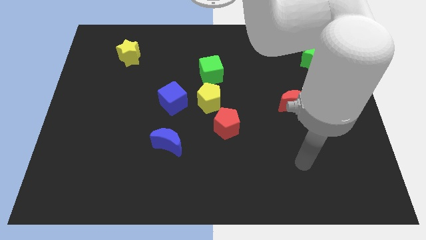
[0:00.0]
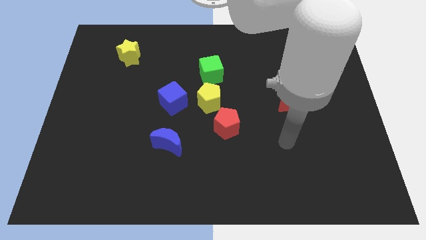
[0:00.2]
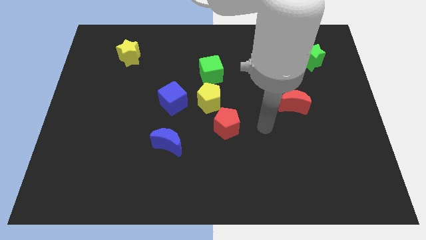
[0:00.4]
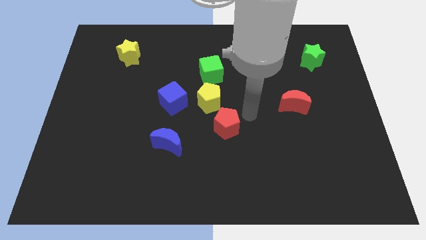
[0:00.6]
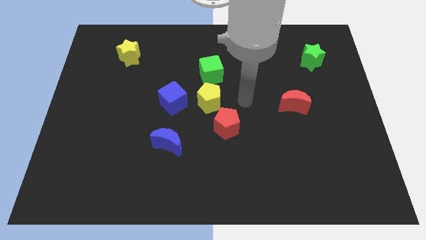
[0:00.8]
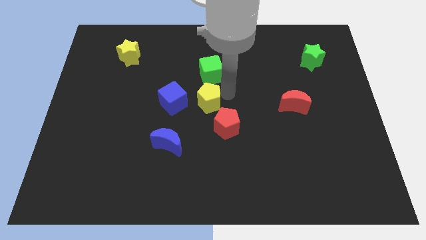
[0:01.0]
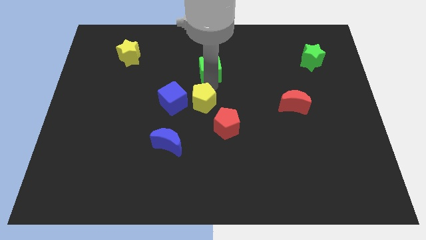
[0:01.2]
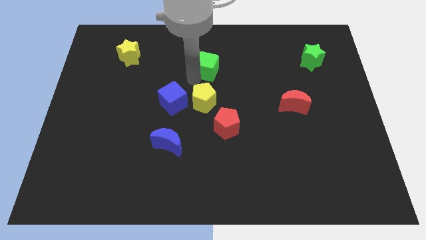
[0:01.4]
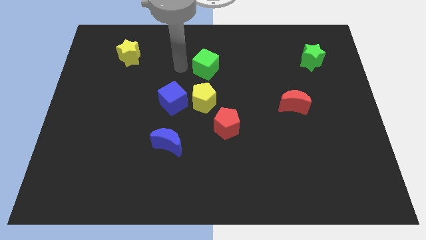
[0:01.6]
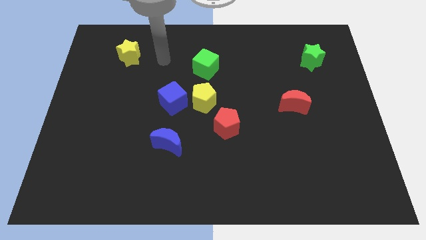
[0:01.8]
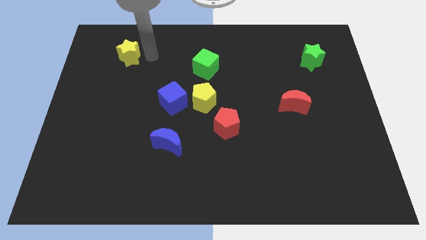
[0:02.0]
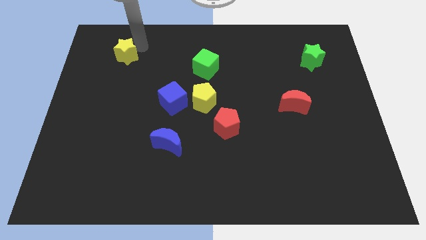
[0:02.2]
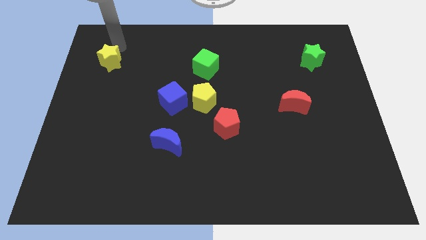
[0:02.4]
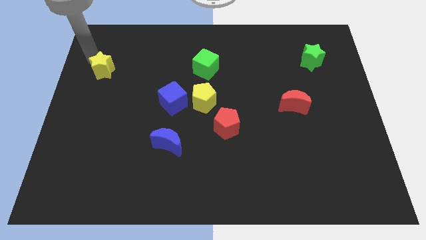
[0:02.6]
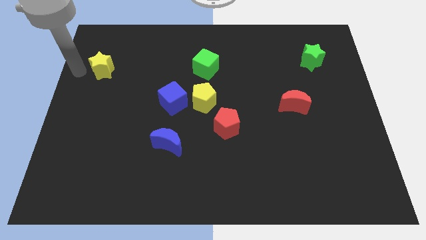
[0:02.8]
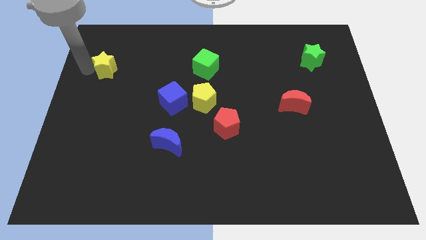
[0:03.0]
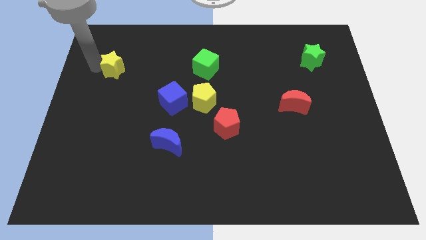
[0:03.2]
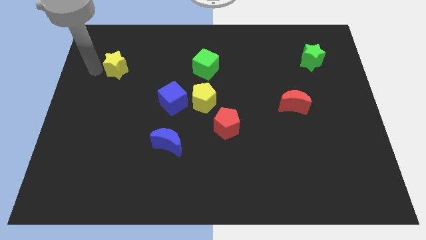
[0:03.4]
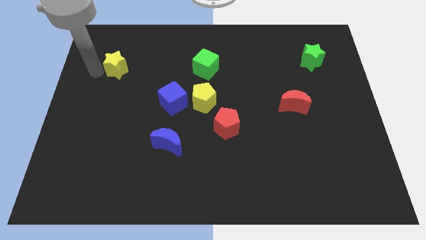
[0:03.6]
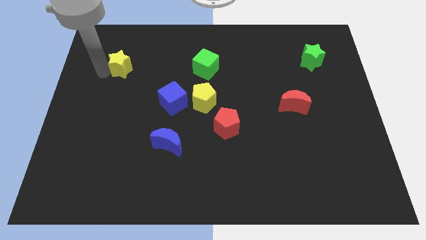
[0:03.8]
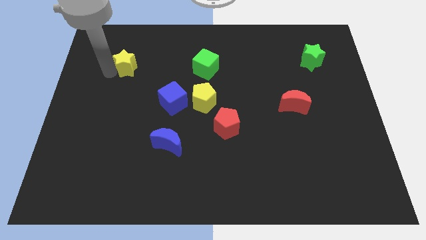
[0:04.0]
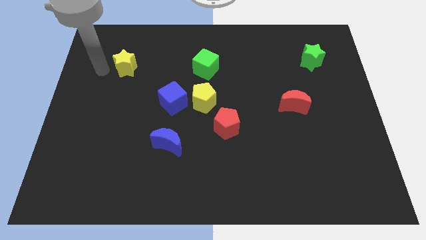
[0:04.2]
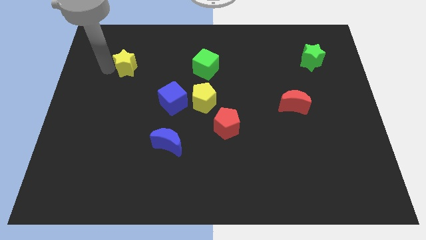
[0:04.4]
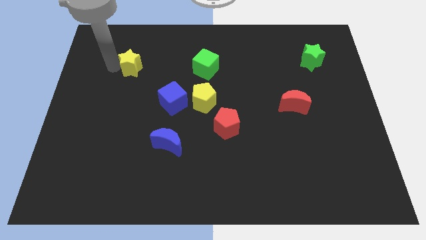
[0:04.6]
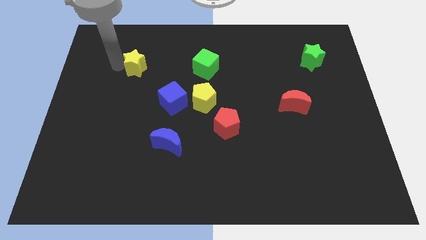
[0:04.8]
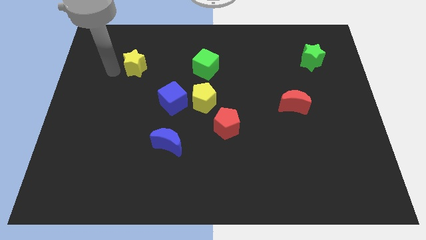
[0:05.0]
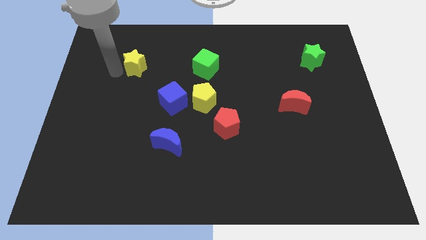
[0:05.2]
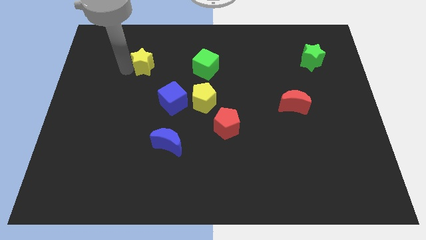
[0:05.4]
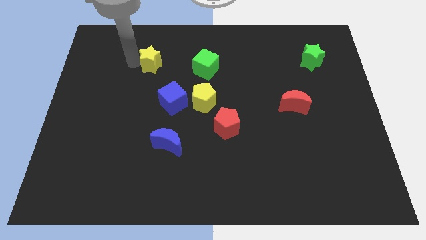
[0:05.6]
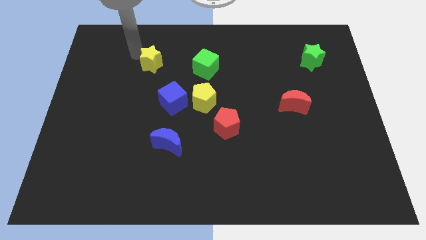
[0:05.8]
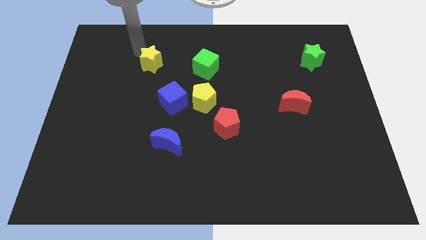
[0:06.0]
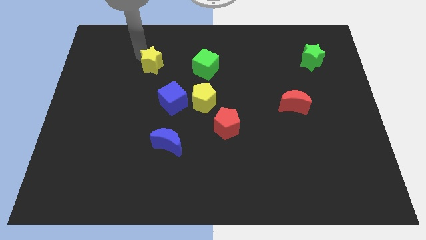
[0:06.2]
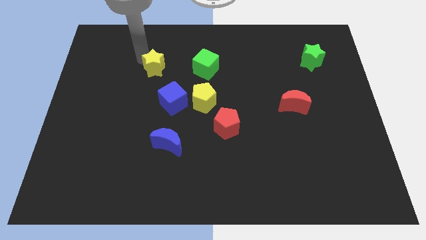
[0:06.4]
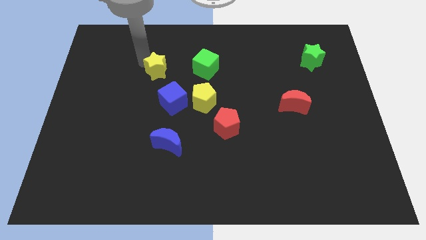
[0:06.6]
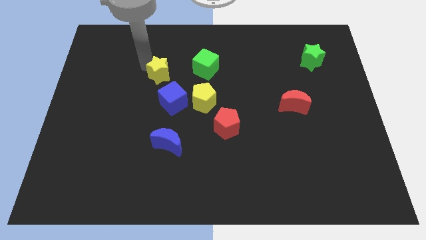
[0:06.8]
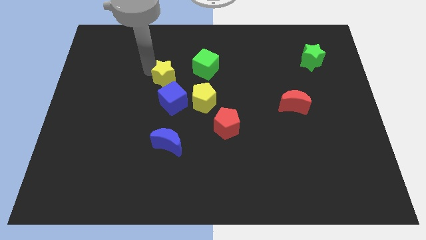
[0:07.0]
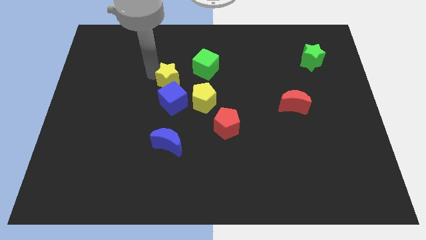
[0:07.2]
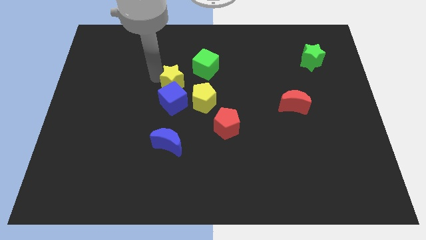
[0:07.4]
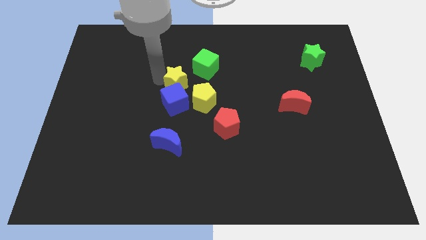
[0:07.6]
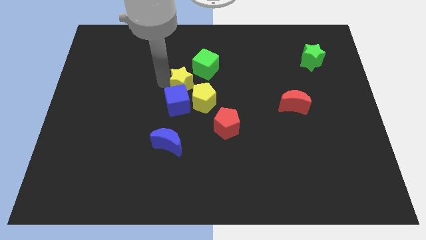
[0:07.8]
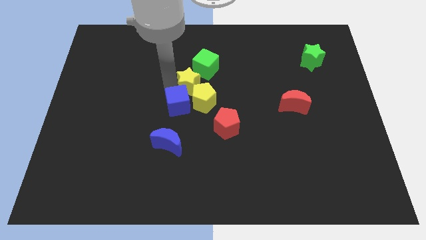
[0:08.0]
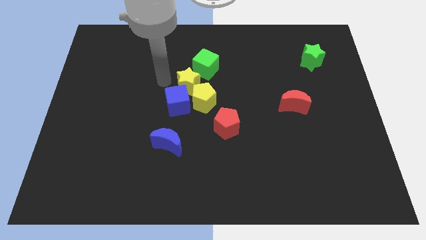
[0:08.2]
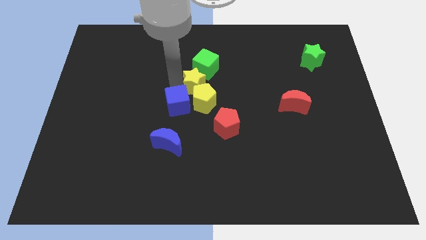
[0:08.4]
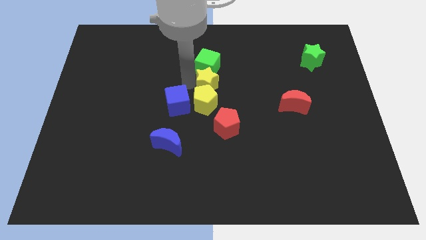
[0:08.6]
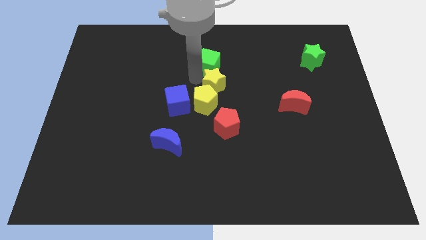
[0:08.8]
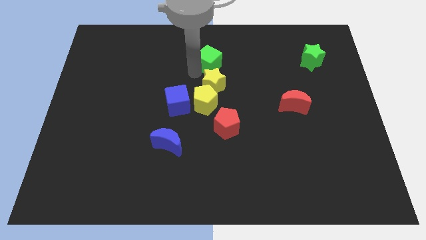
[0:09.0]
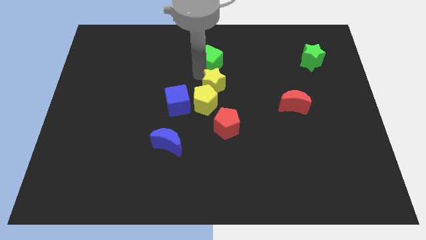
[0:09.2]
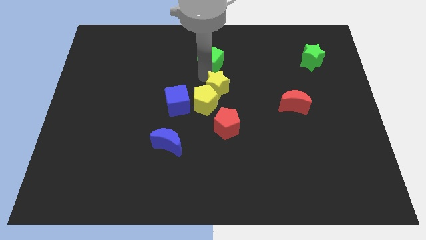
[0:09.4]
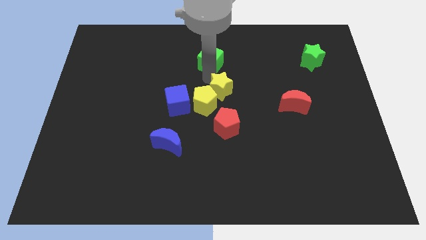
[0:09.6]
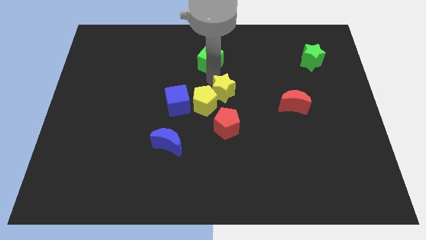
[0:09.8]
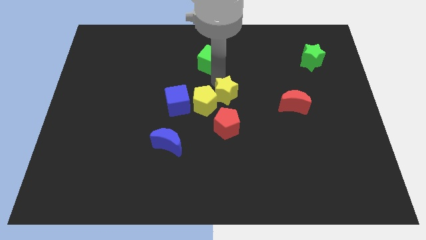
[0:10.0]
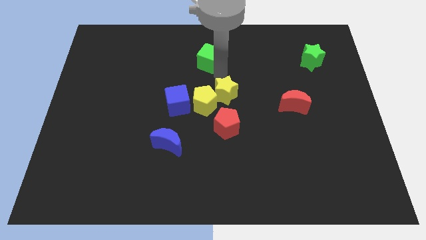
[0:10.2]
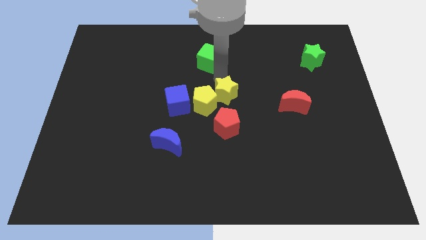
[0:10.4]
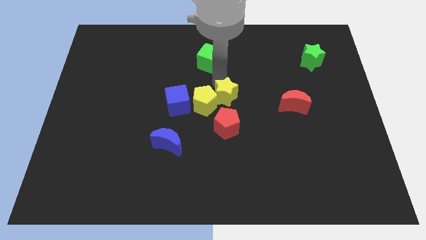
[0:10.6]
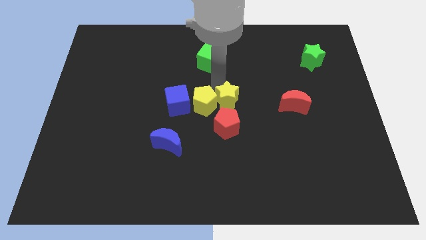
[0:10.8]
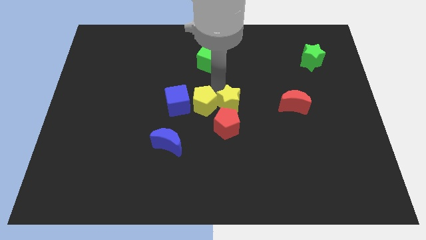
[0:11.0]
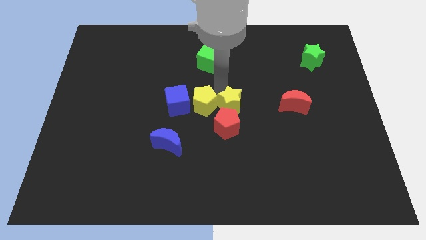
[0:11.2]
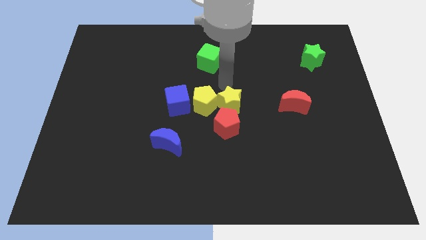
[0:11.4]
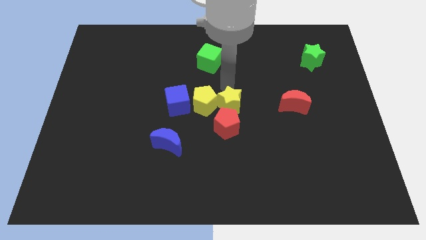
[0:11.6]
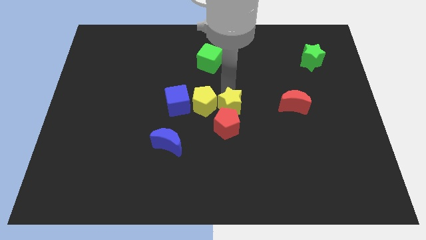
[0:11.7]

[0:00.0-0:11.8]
put the yellow star to the red pentagon
